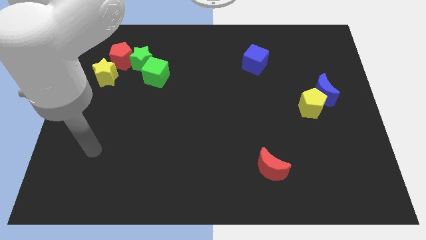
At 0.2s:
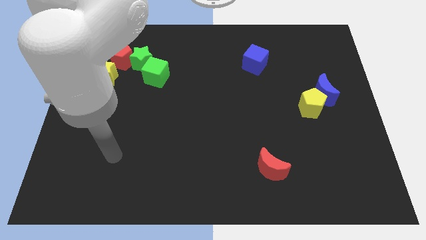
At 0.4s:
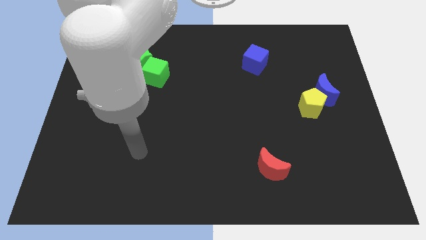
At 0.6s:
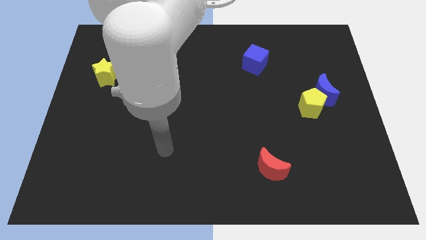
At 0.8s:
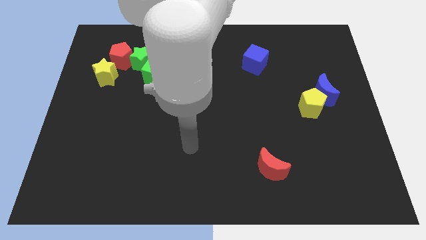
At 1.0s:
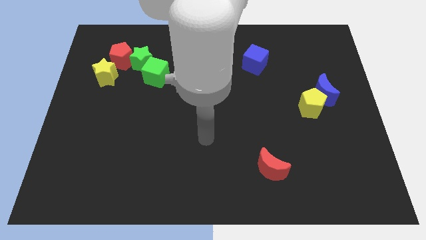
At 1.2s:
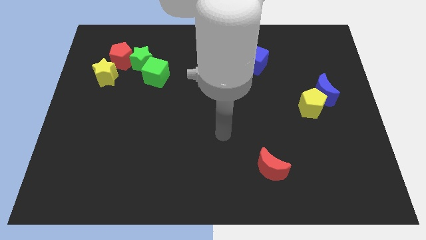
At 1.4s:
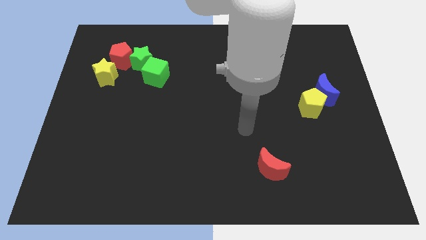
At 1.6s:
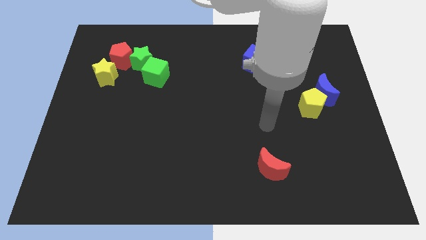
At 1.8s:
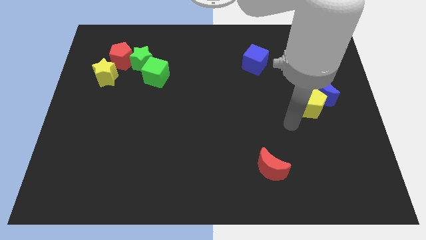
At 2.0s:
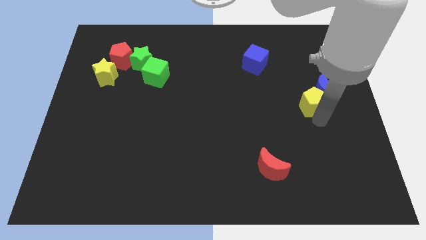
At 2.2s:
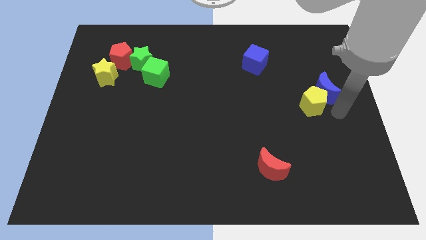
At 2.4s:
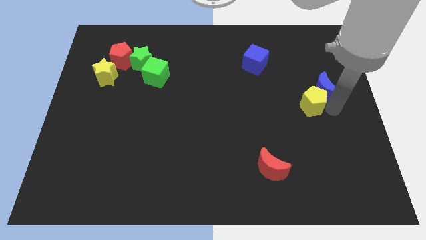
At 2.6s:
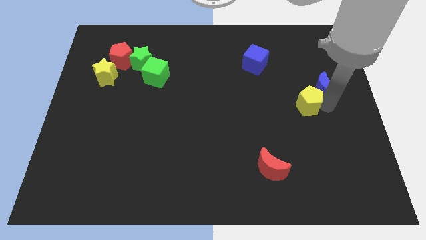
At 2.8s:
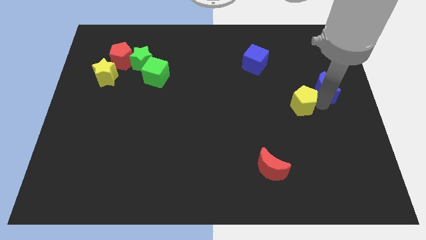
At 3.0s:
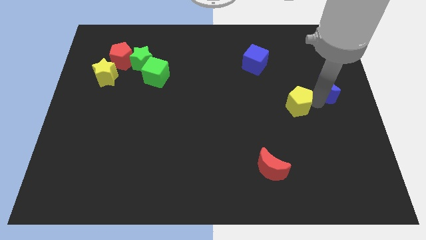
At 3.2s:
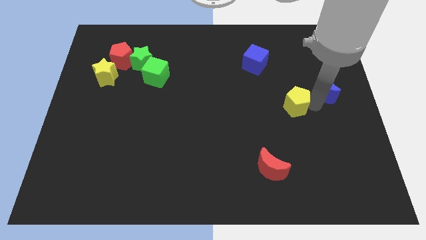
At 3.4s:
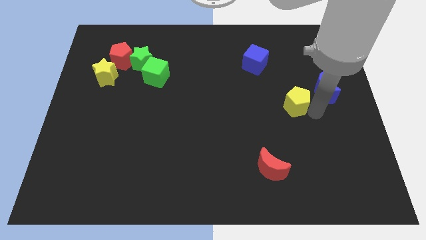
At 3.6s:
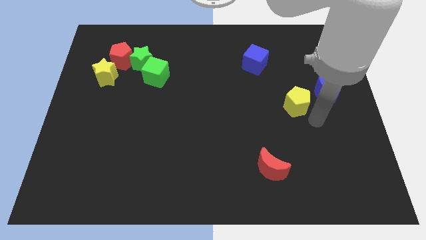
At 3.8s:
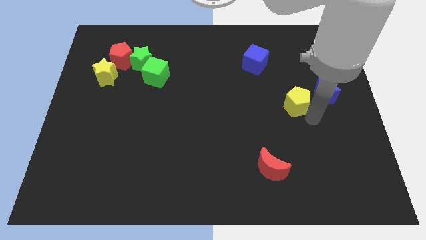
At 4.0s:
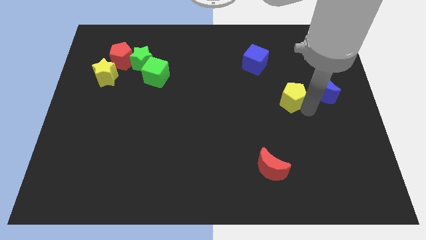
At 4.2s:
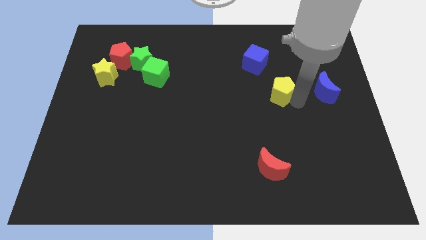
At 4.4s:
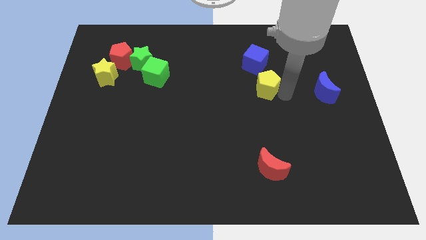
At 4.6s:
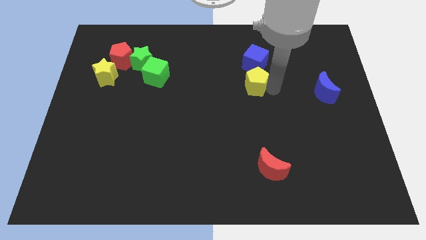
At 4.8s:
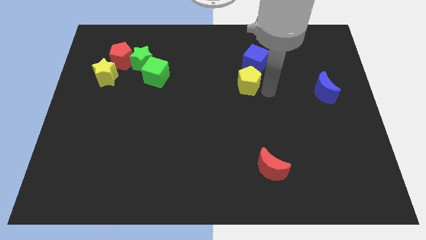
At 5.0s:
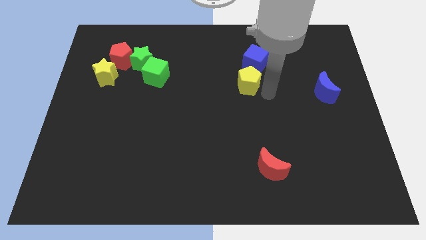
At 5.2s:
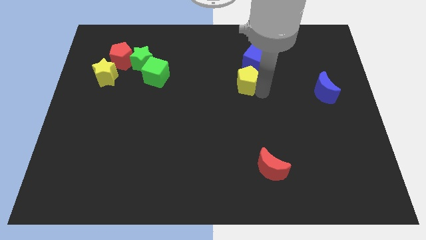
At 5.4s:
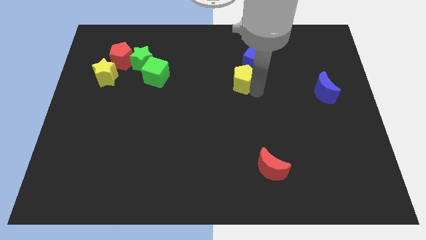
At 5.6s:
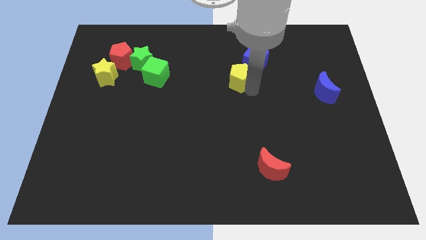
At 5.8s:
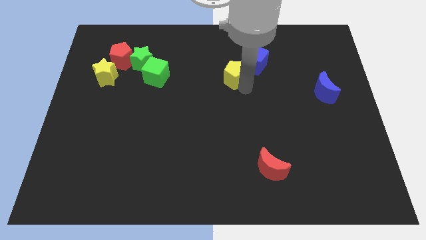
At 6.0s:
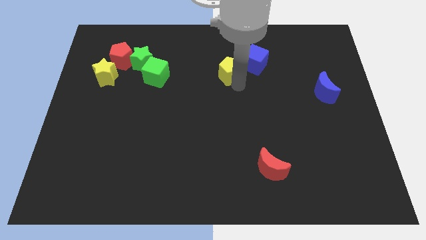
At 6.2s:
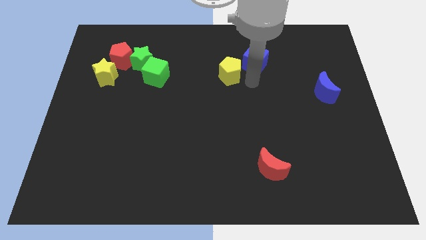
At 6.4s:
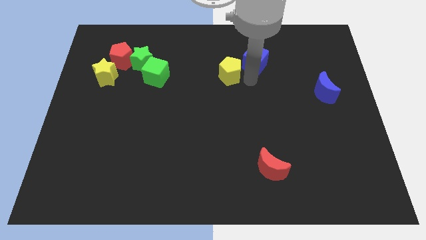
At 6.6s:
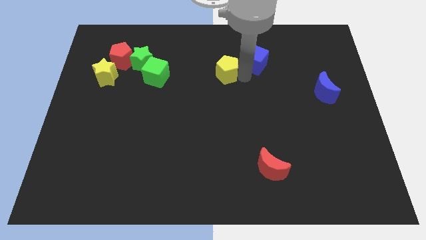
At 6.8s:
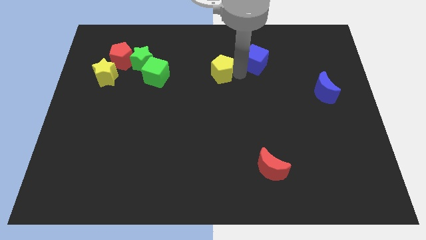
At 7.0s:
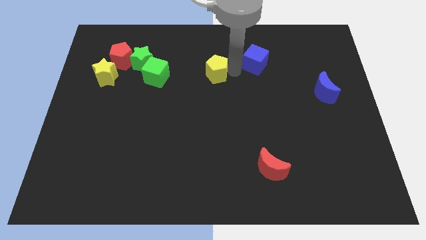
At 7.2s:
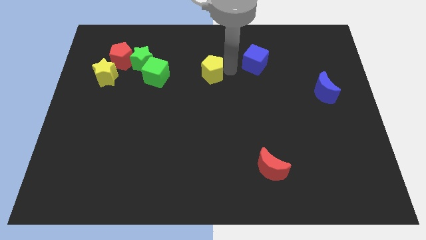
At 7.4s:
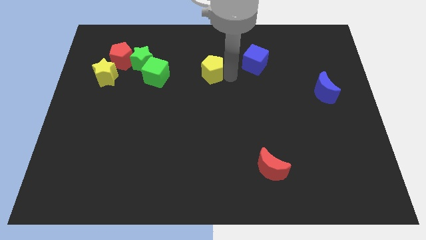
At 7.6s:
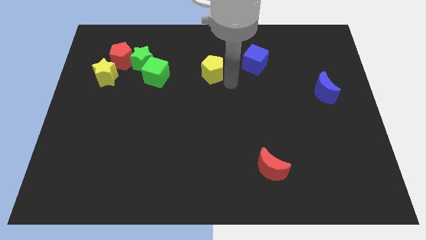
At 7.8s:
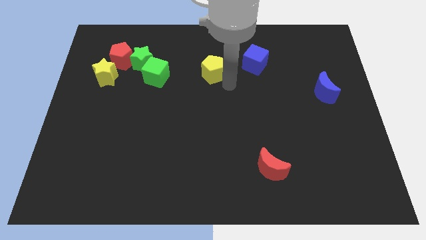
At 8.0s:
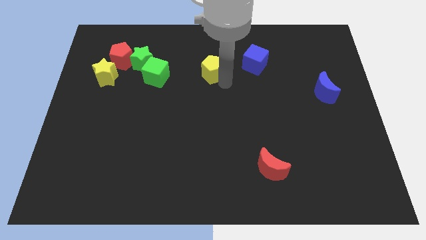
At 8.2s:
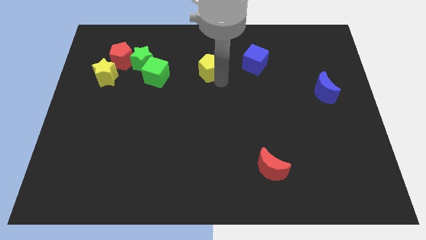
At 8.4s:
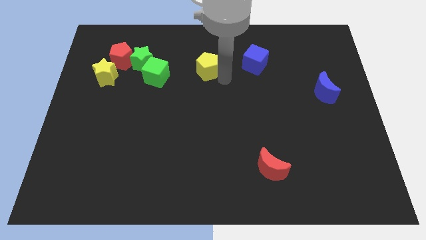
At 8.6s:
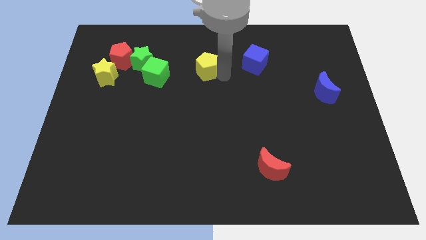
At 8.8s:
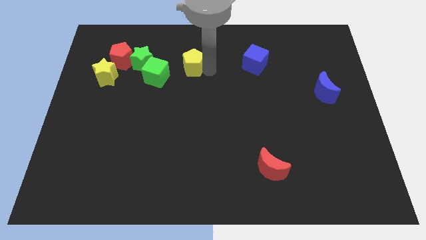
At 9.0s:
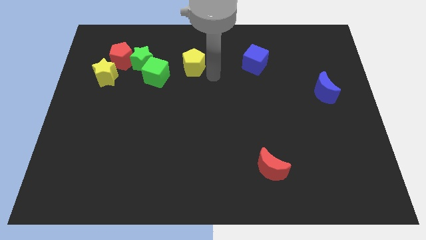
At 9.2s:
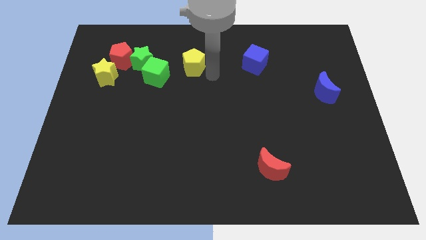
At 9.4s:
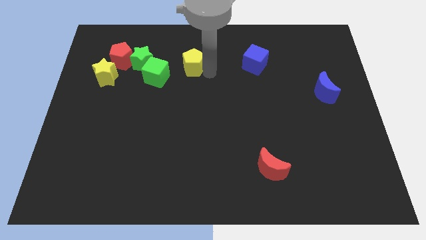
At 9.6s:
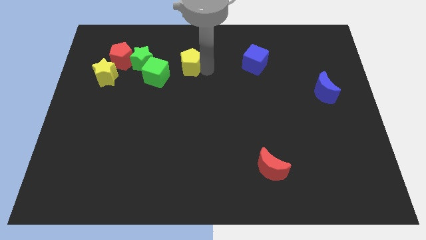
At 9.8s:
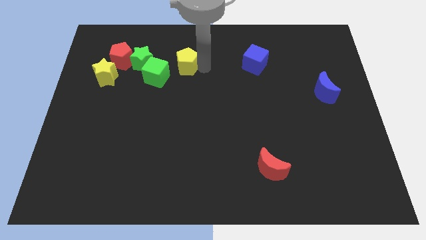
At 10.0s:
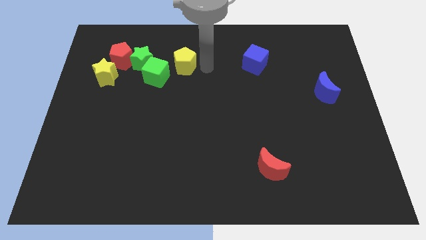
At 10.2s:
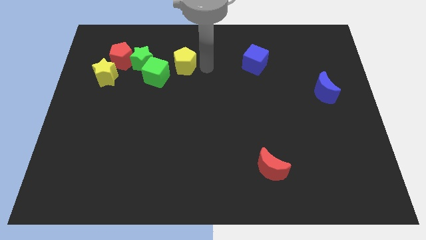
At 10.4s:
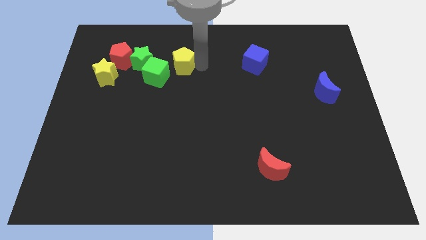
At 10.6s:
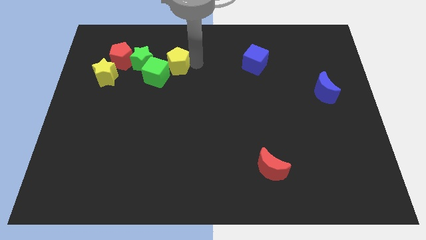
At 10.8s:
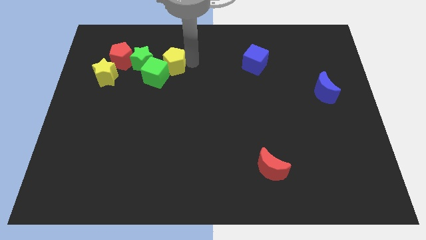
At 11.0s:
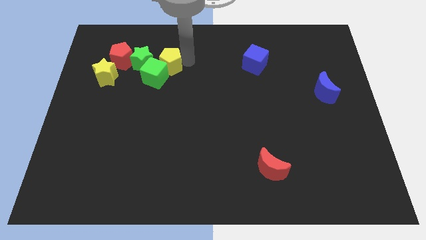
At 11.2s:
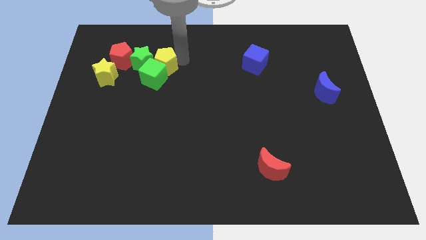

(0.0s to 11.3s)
push the yellow pentagon next to the green star
